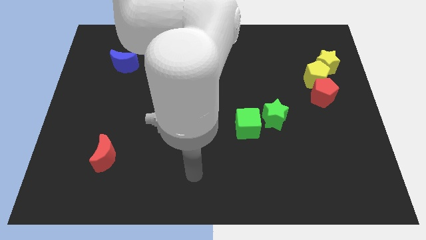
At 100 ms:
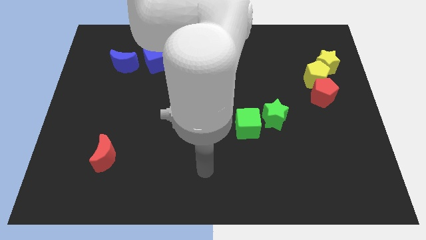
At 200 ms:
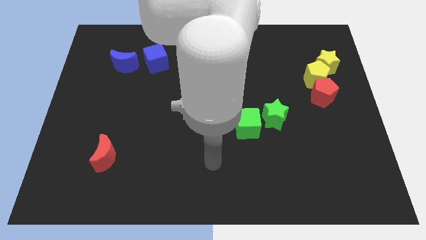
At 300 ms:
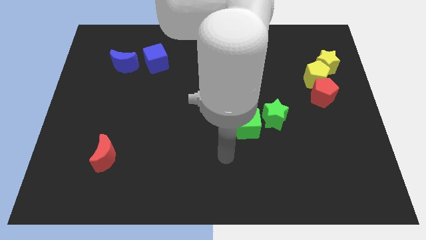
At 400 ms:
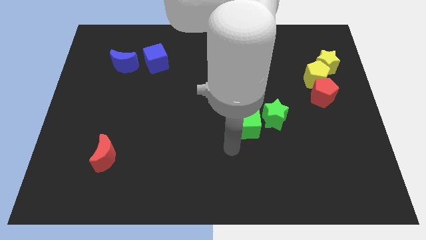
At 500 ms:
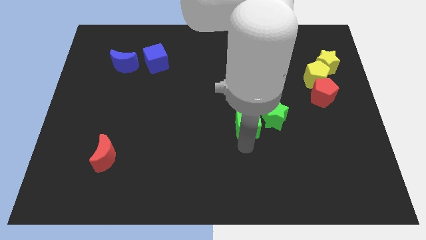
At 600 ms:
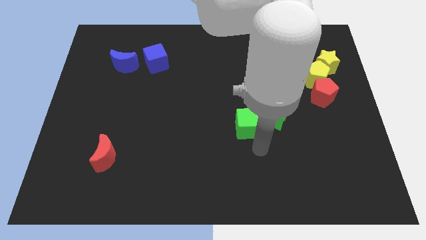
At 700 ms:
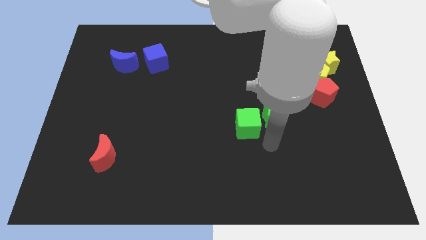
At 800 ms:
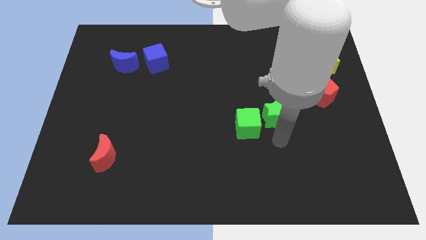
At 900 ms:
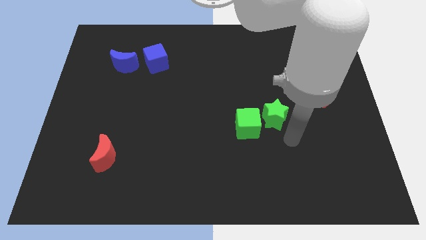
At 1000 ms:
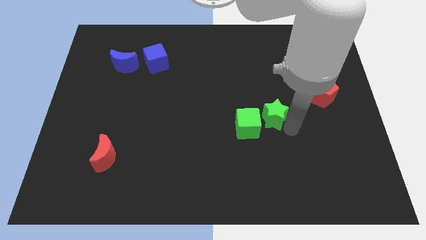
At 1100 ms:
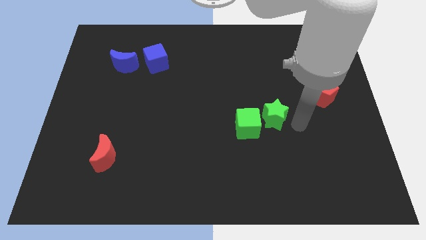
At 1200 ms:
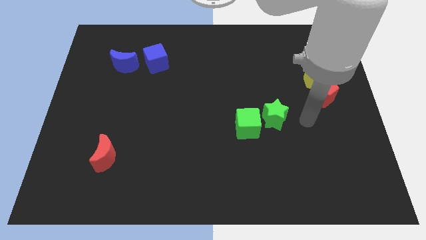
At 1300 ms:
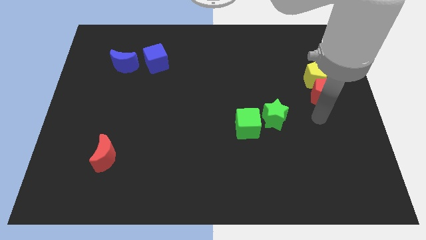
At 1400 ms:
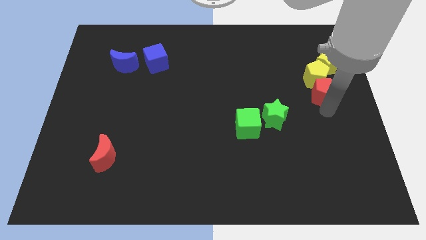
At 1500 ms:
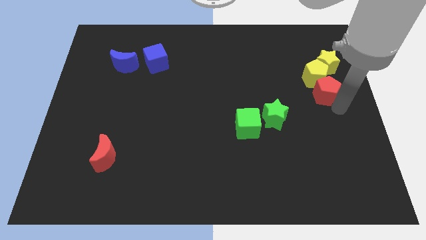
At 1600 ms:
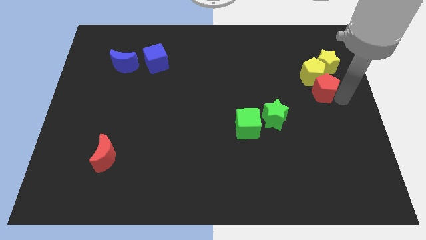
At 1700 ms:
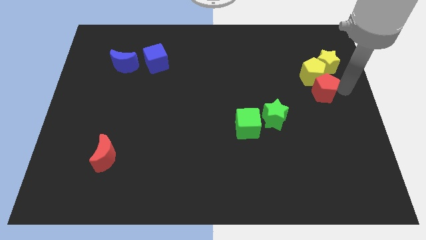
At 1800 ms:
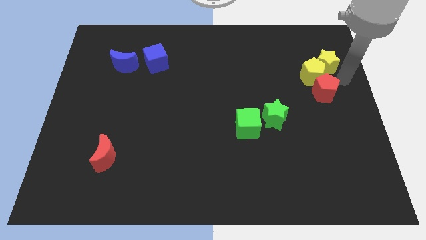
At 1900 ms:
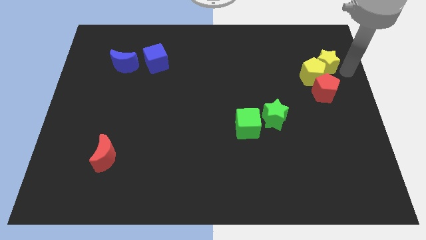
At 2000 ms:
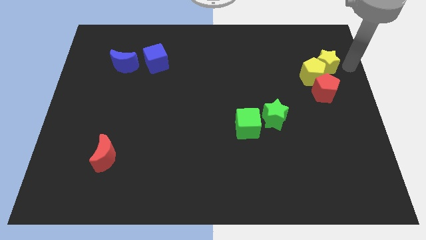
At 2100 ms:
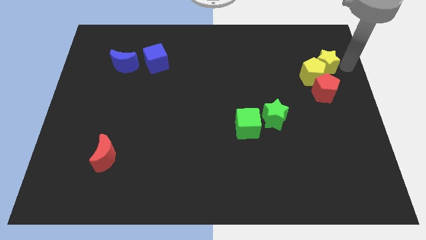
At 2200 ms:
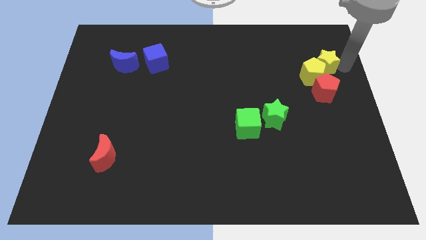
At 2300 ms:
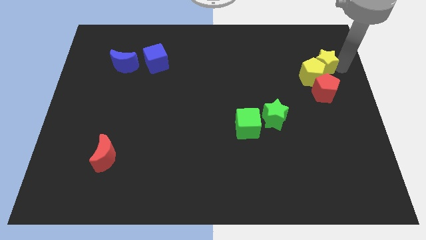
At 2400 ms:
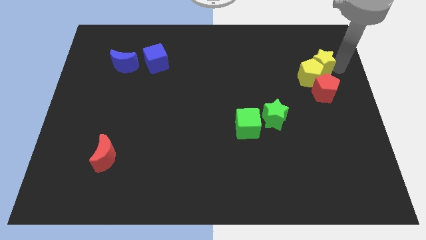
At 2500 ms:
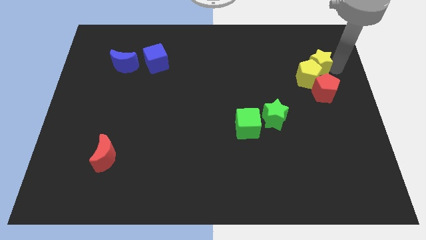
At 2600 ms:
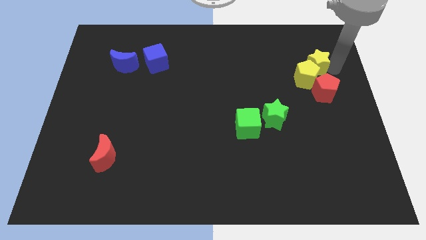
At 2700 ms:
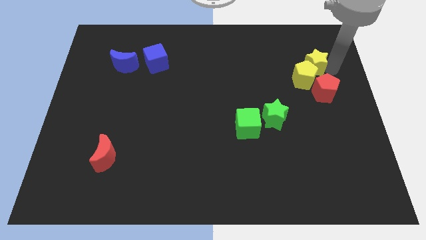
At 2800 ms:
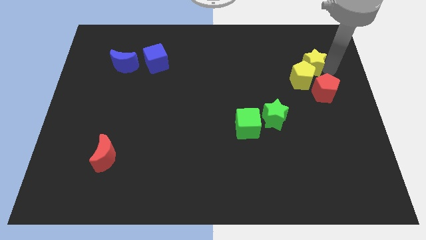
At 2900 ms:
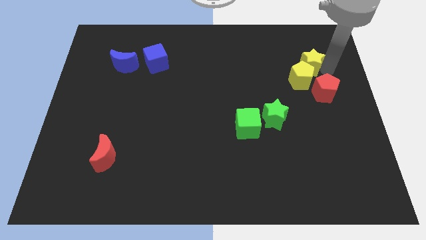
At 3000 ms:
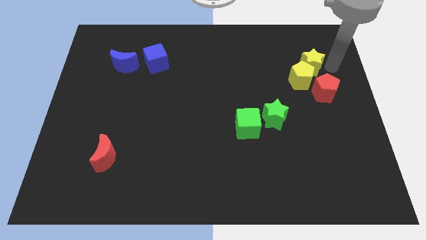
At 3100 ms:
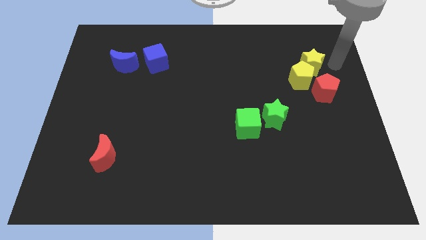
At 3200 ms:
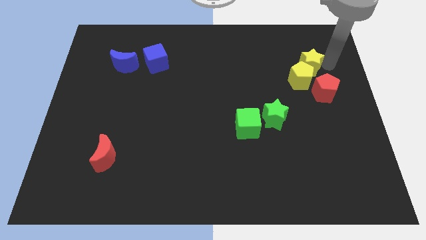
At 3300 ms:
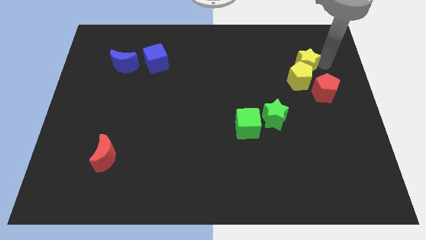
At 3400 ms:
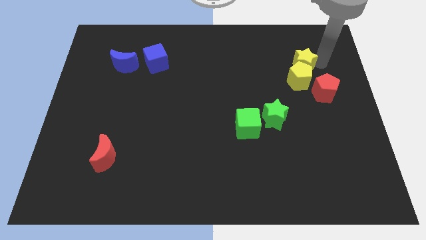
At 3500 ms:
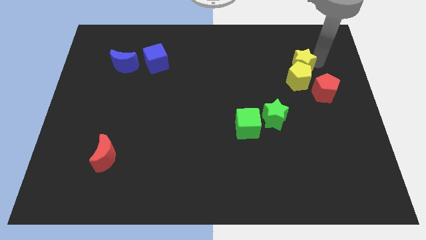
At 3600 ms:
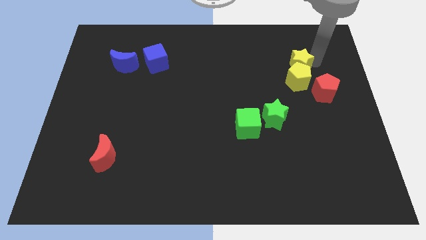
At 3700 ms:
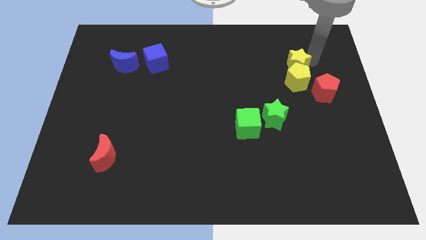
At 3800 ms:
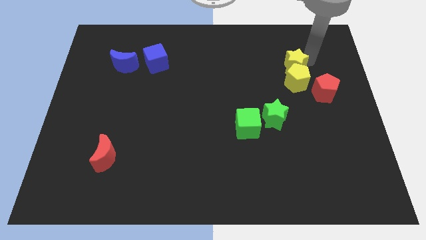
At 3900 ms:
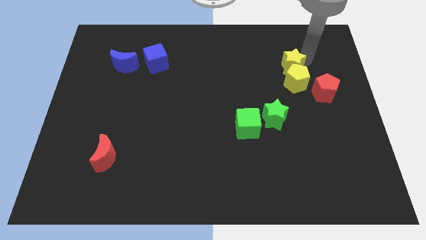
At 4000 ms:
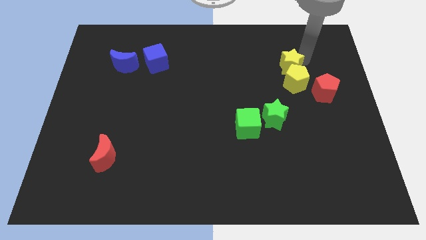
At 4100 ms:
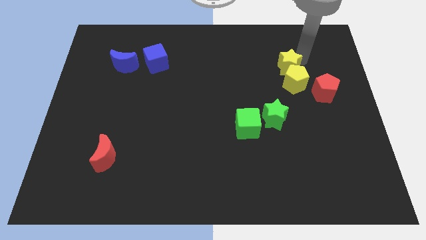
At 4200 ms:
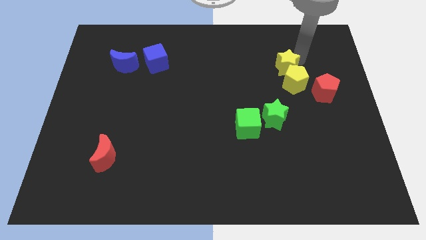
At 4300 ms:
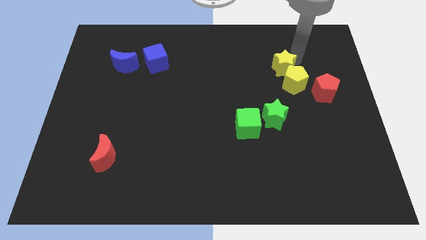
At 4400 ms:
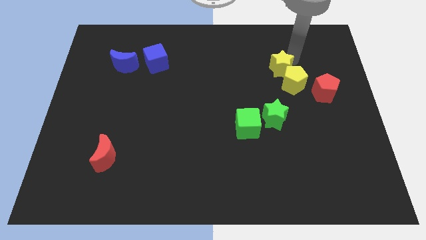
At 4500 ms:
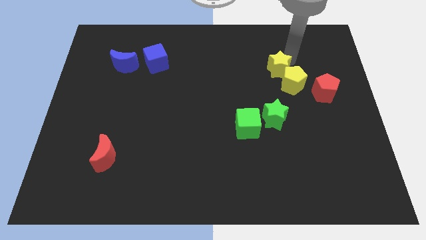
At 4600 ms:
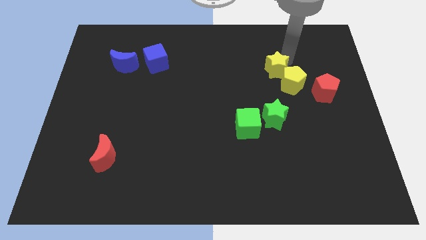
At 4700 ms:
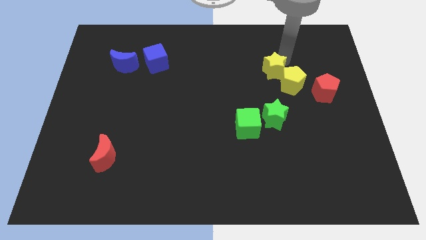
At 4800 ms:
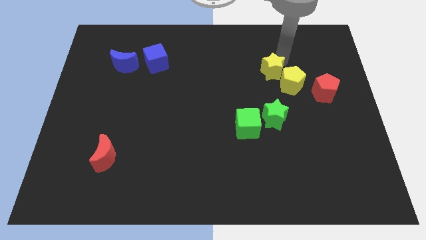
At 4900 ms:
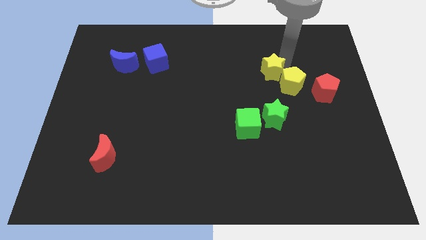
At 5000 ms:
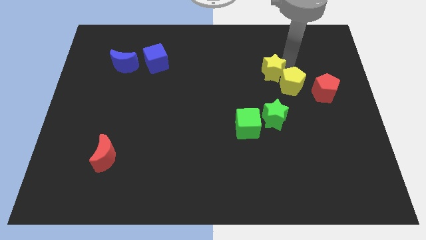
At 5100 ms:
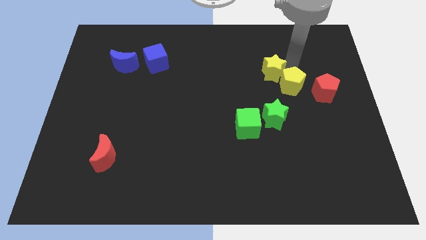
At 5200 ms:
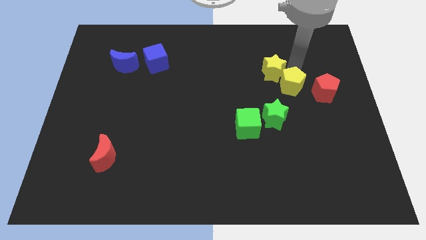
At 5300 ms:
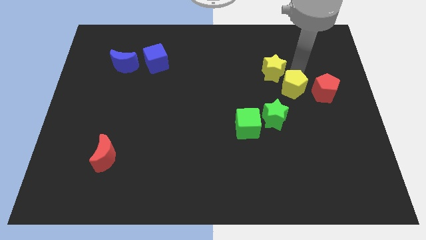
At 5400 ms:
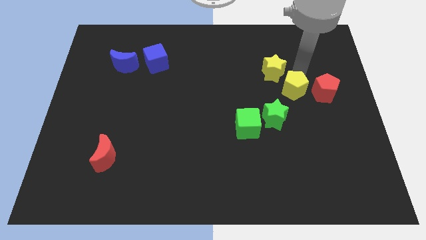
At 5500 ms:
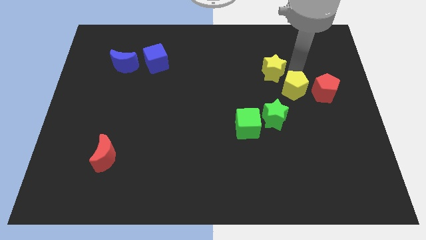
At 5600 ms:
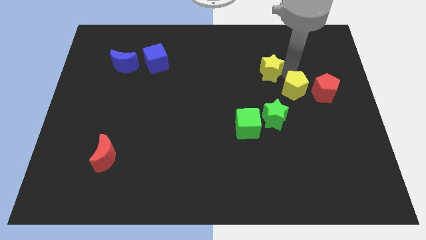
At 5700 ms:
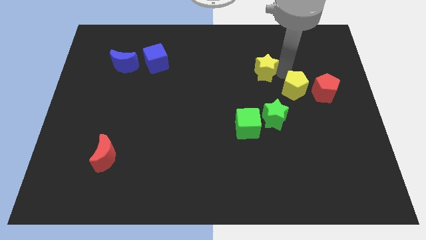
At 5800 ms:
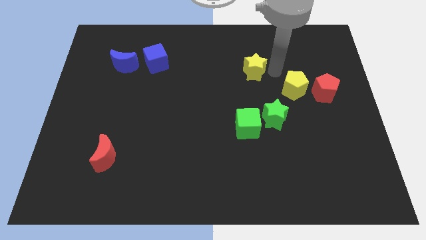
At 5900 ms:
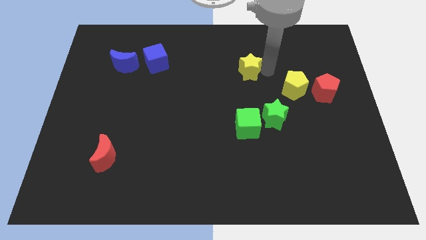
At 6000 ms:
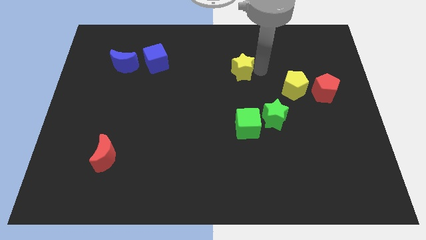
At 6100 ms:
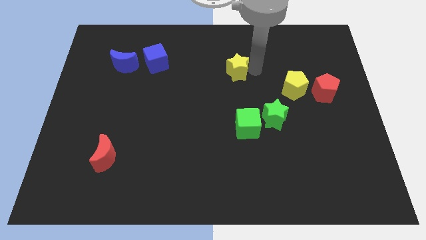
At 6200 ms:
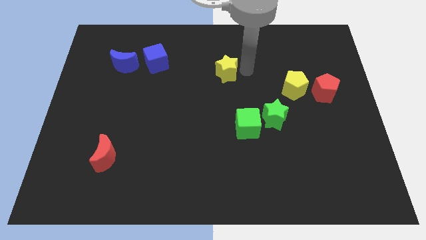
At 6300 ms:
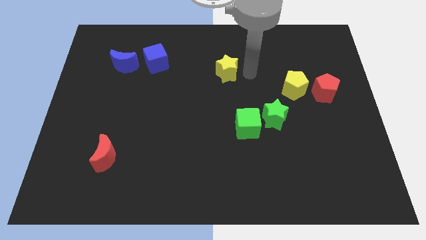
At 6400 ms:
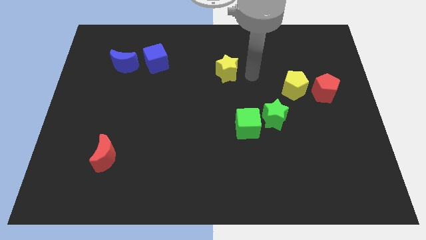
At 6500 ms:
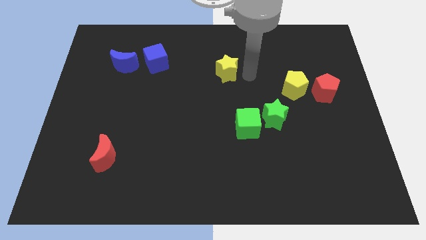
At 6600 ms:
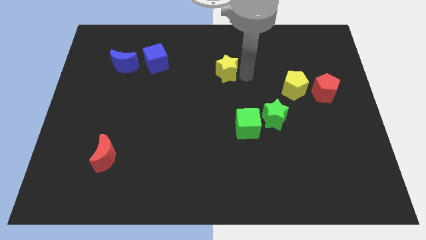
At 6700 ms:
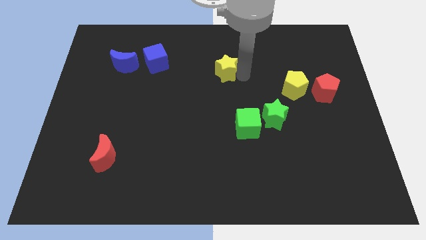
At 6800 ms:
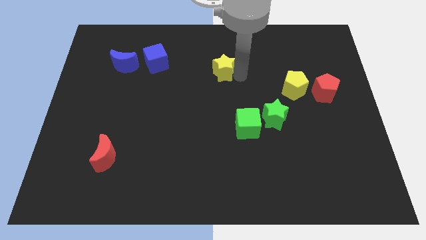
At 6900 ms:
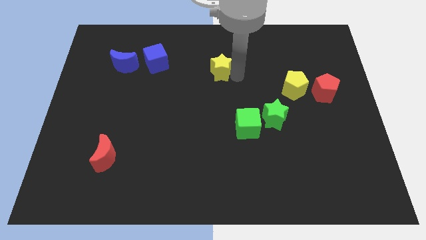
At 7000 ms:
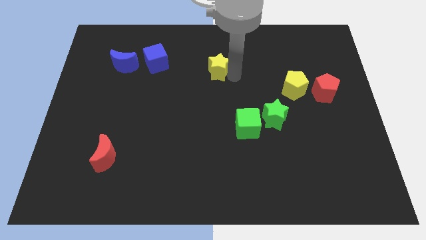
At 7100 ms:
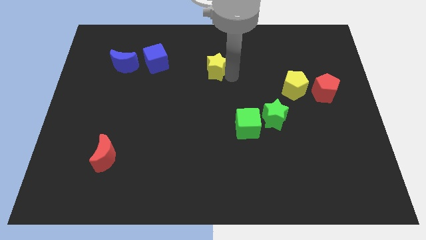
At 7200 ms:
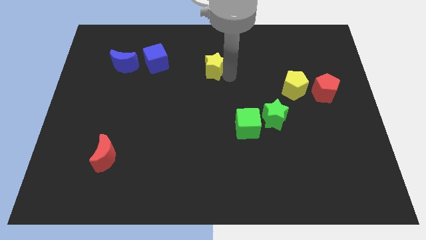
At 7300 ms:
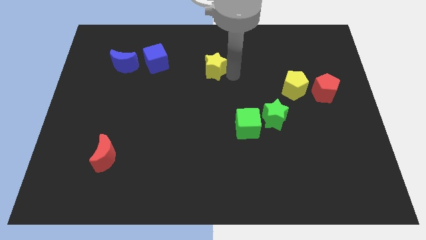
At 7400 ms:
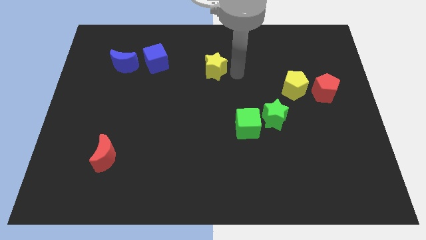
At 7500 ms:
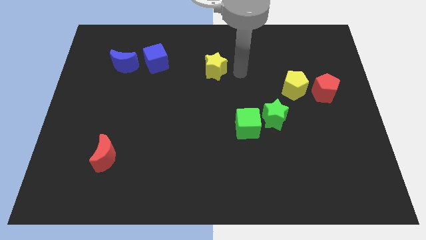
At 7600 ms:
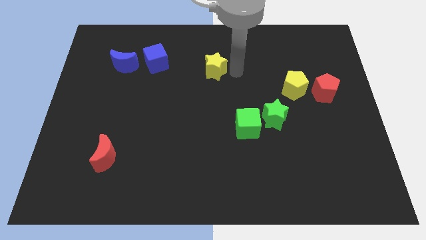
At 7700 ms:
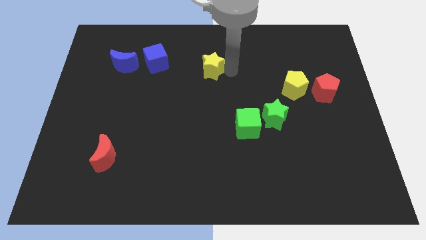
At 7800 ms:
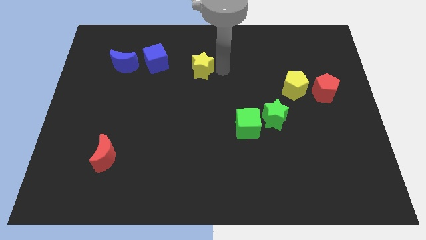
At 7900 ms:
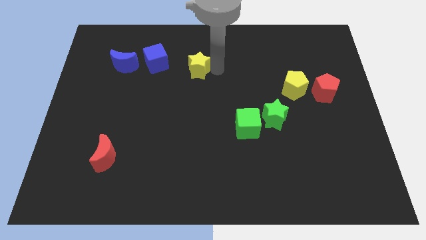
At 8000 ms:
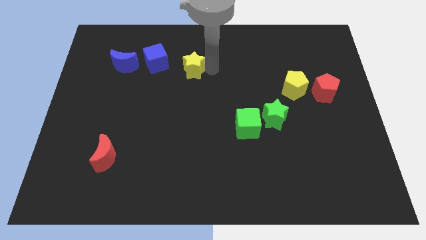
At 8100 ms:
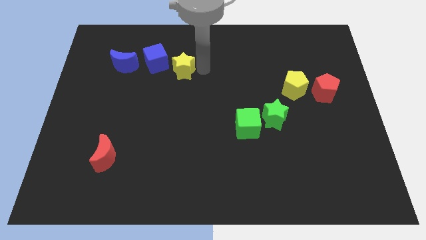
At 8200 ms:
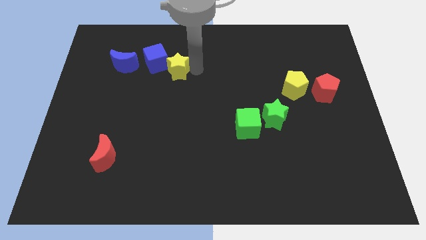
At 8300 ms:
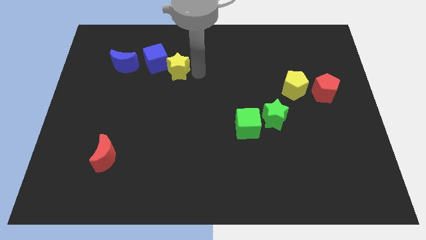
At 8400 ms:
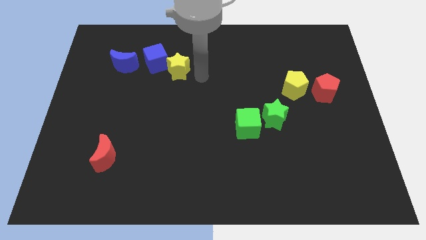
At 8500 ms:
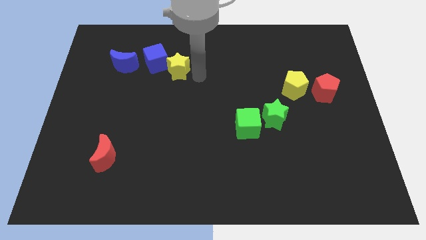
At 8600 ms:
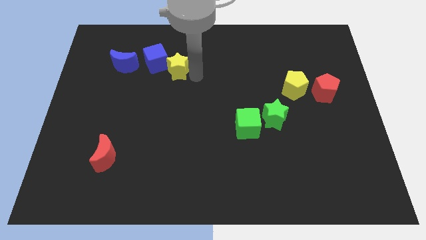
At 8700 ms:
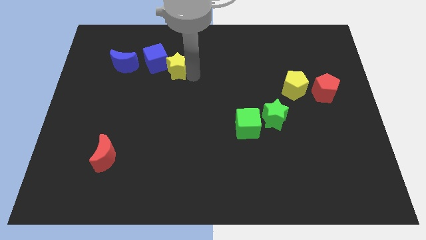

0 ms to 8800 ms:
push the yellow star next to the blue cube
